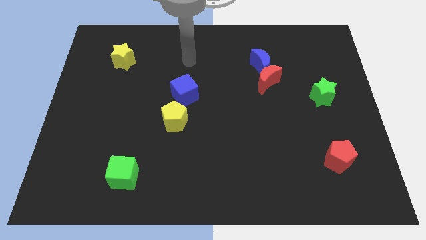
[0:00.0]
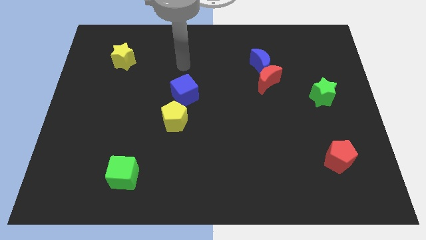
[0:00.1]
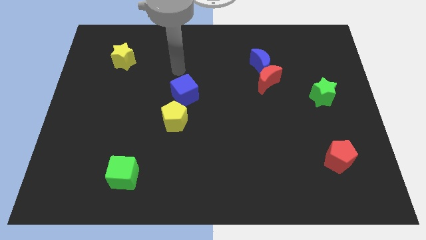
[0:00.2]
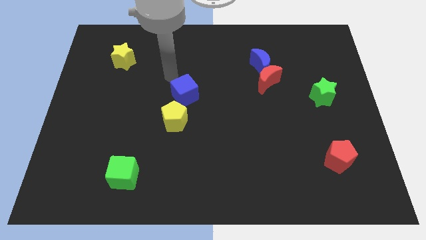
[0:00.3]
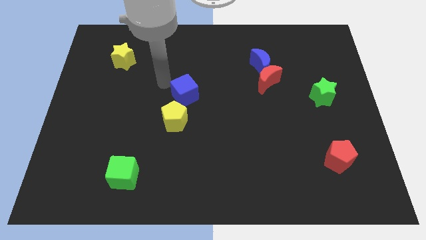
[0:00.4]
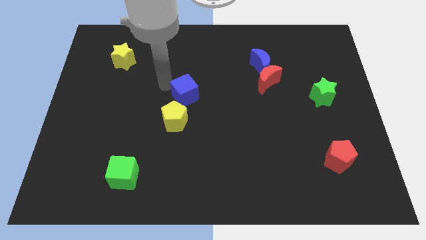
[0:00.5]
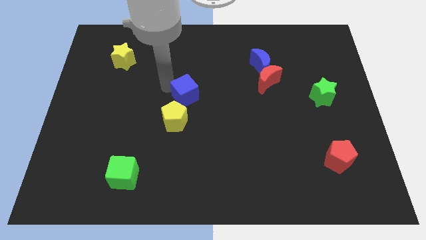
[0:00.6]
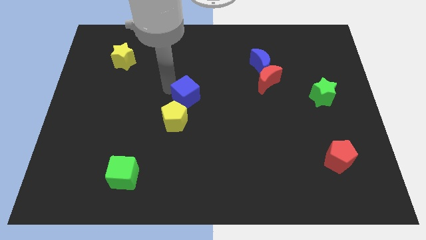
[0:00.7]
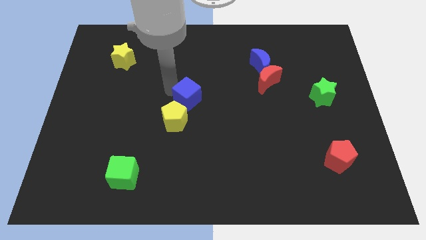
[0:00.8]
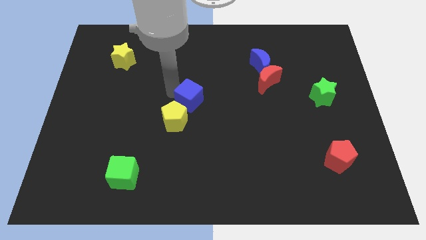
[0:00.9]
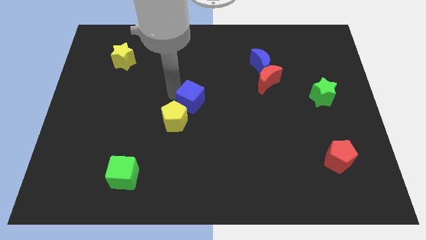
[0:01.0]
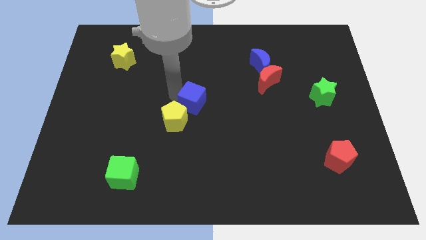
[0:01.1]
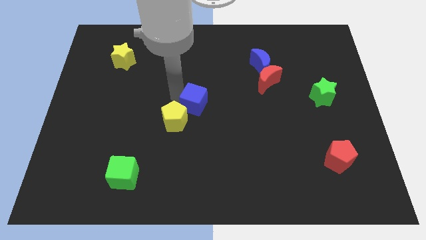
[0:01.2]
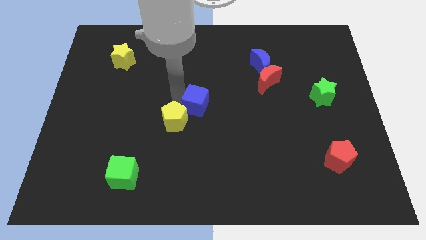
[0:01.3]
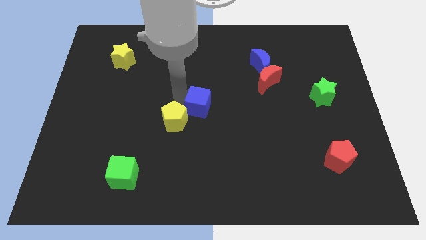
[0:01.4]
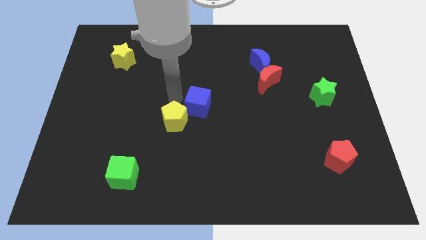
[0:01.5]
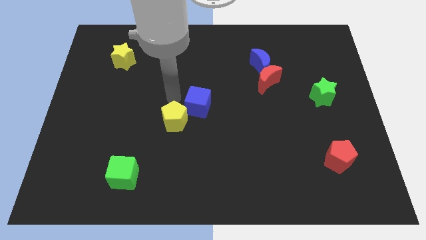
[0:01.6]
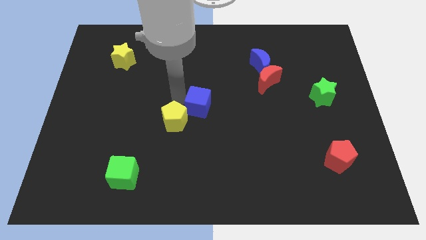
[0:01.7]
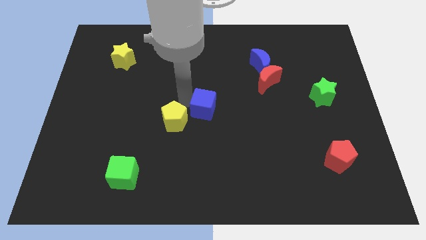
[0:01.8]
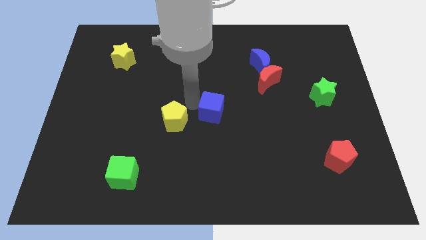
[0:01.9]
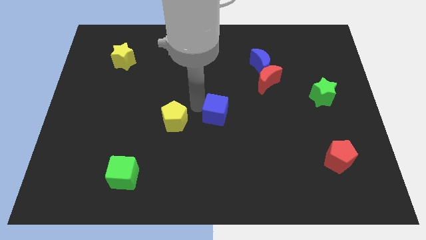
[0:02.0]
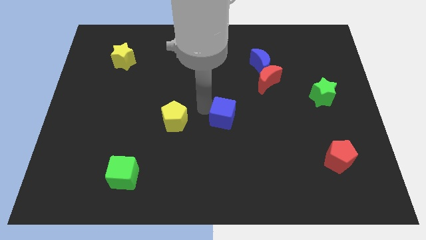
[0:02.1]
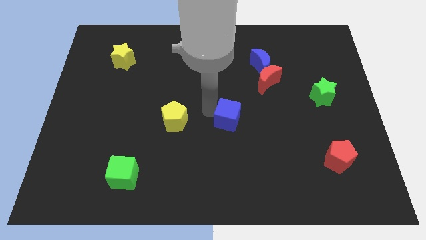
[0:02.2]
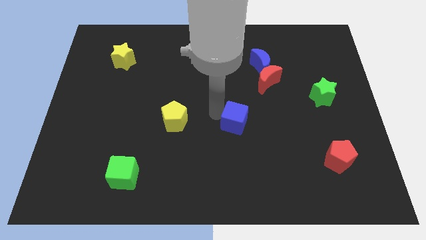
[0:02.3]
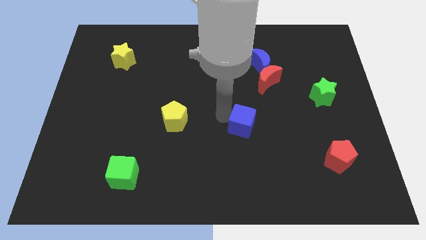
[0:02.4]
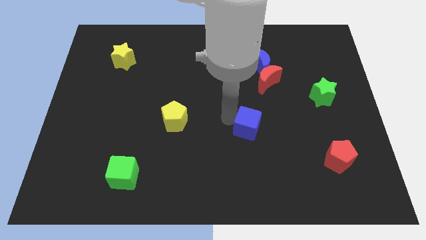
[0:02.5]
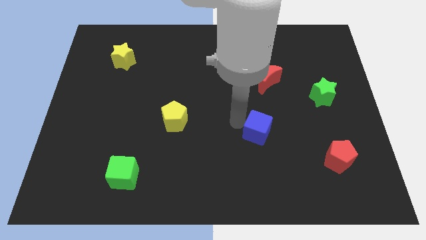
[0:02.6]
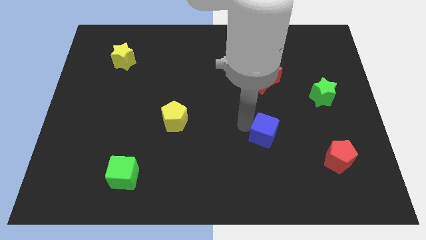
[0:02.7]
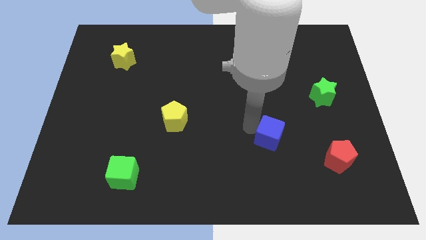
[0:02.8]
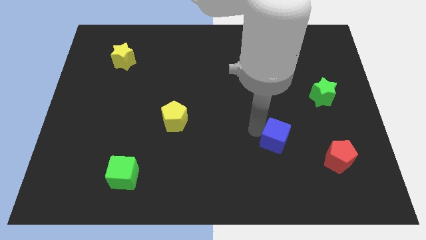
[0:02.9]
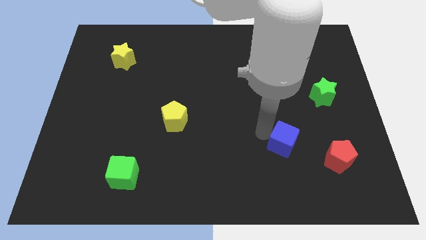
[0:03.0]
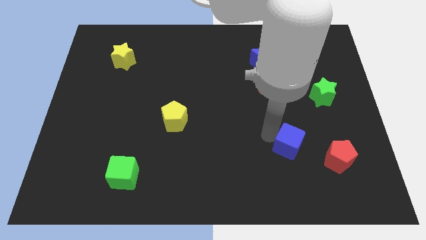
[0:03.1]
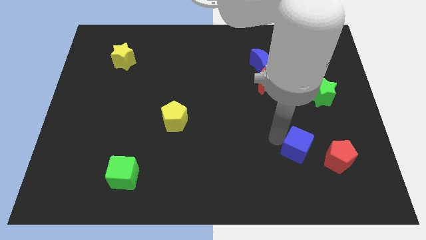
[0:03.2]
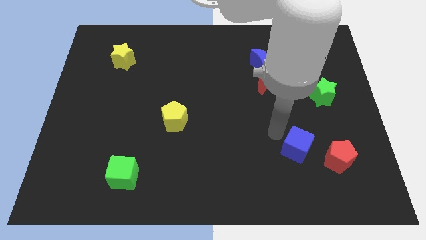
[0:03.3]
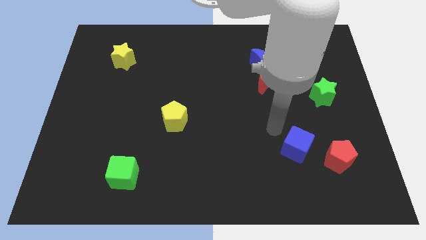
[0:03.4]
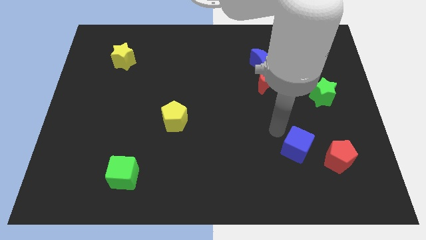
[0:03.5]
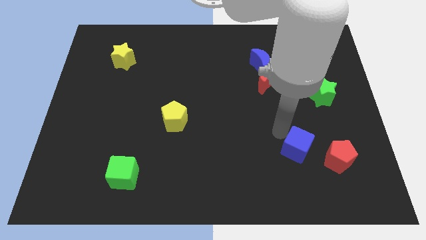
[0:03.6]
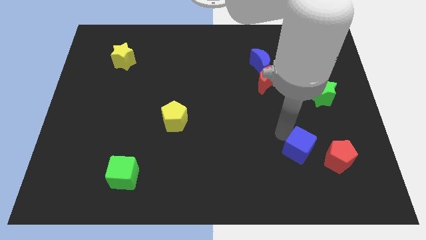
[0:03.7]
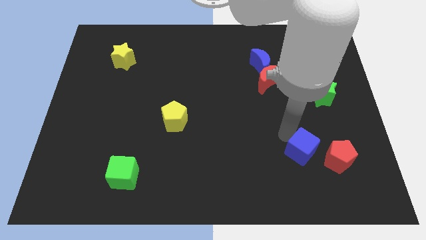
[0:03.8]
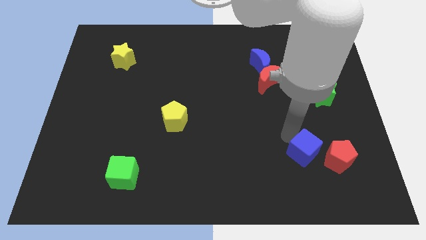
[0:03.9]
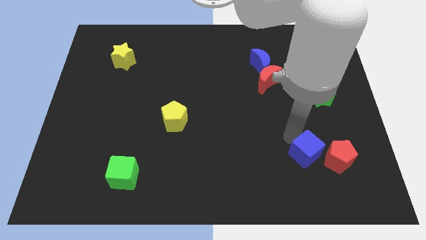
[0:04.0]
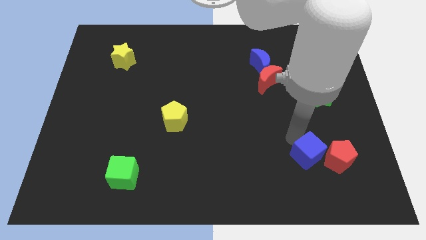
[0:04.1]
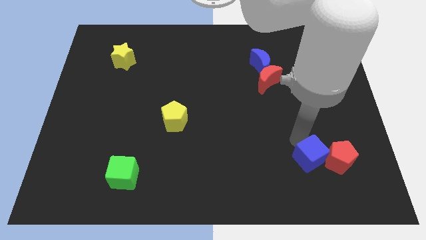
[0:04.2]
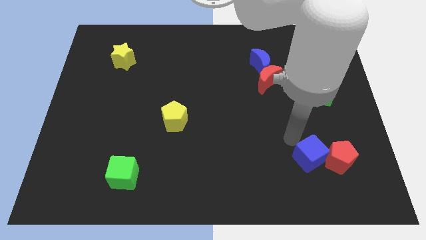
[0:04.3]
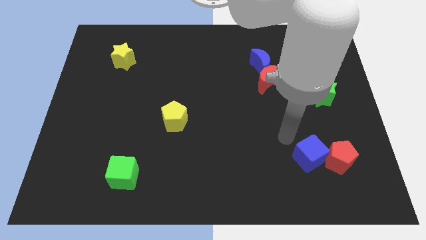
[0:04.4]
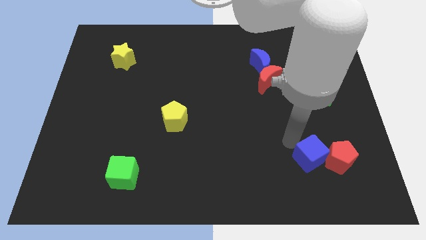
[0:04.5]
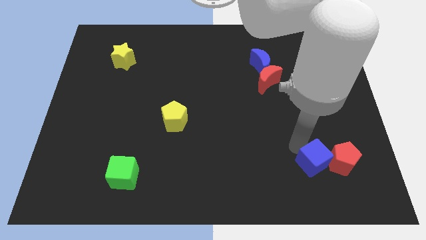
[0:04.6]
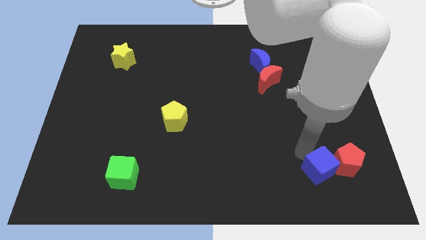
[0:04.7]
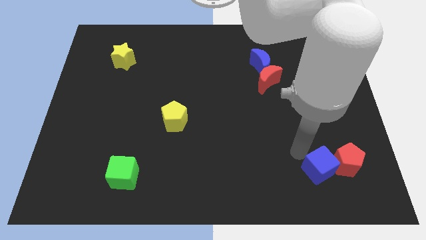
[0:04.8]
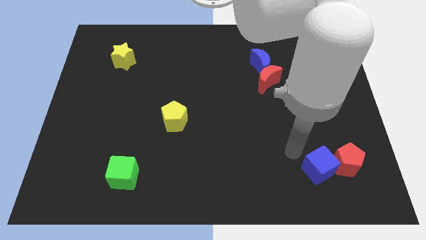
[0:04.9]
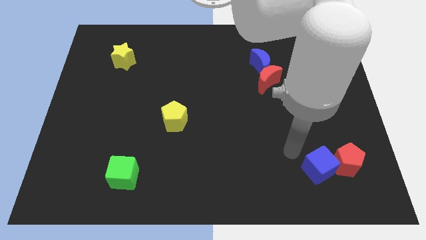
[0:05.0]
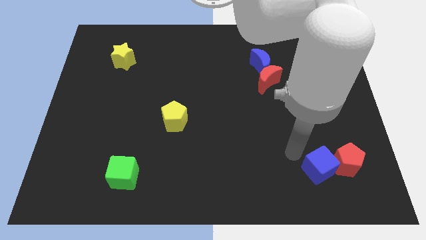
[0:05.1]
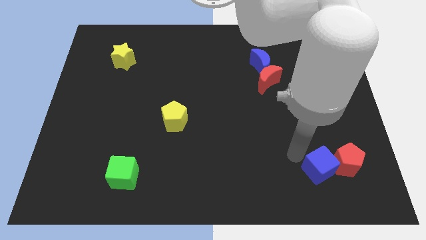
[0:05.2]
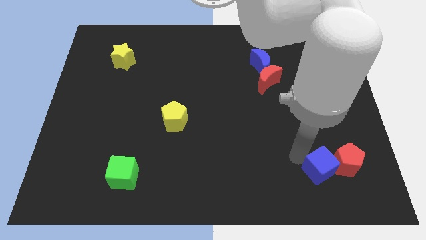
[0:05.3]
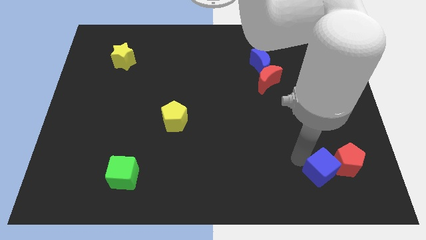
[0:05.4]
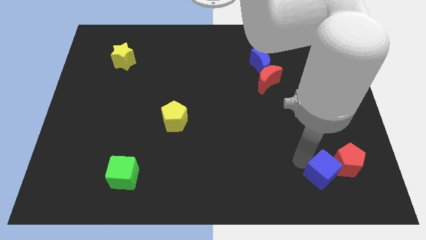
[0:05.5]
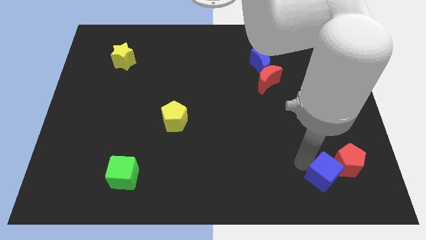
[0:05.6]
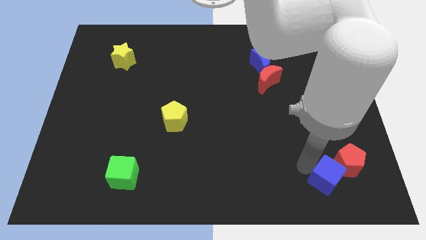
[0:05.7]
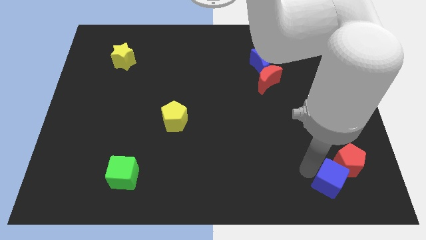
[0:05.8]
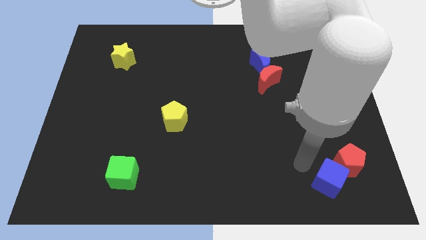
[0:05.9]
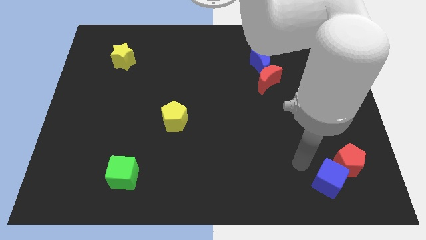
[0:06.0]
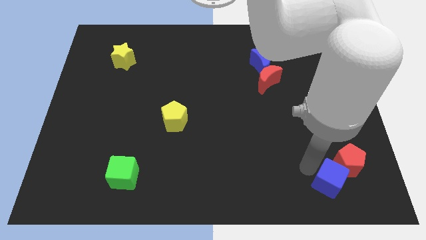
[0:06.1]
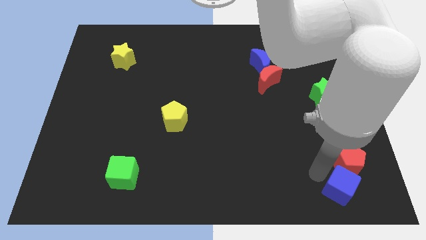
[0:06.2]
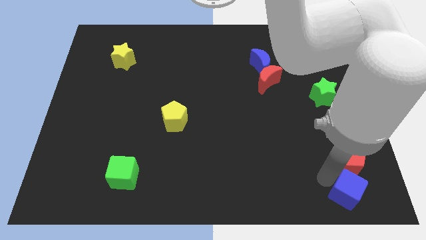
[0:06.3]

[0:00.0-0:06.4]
move the blue cube to the bottom right of the board

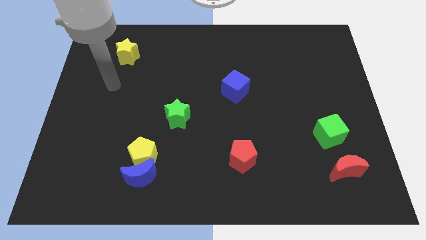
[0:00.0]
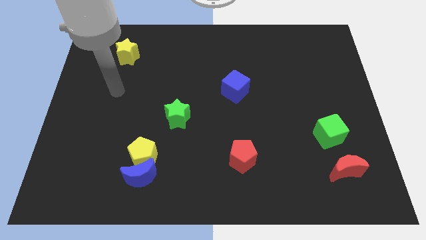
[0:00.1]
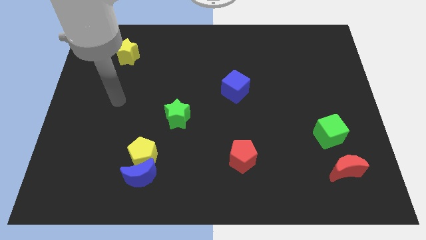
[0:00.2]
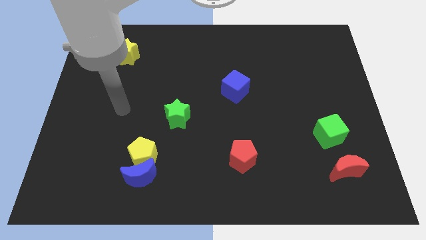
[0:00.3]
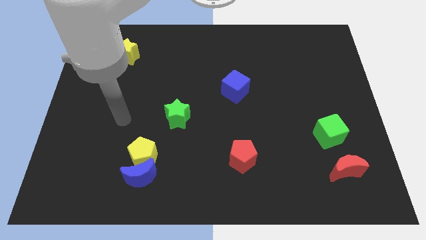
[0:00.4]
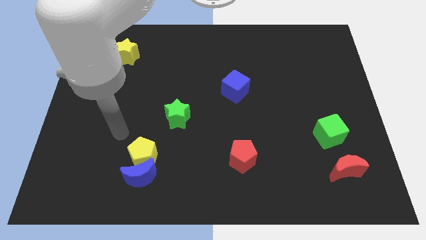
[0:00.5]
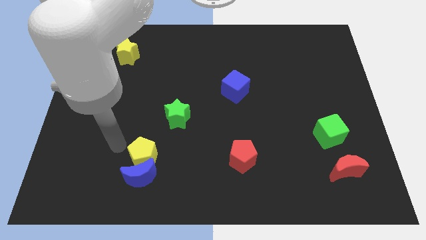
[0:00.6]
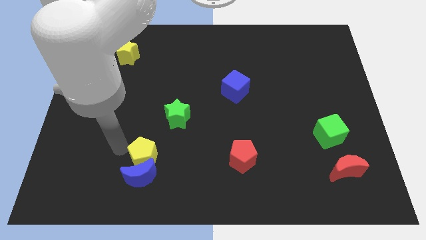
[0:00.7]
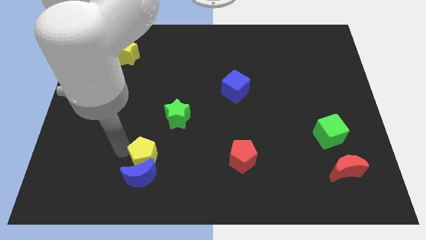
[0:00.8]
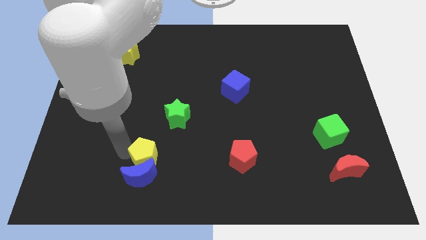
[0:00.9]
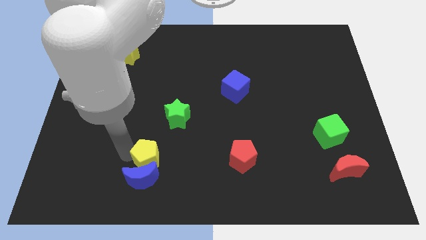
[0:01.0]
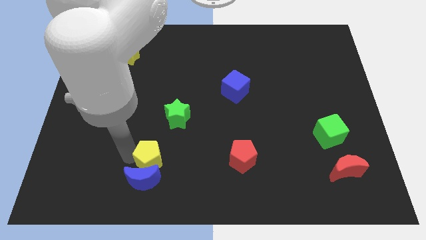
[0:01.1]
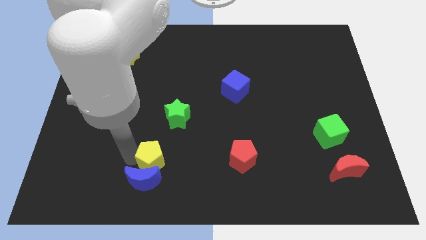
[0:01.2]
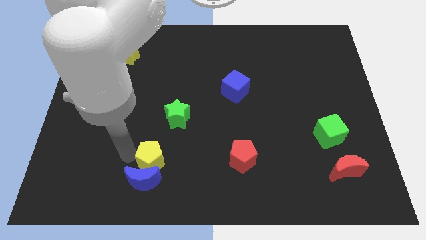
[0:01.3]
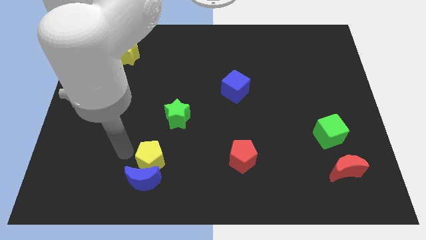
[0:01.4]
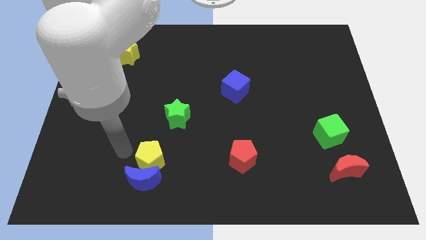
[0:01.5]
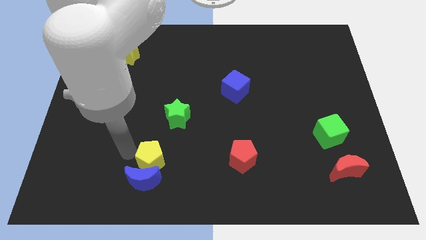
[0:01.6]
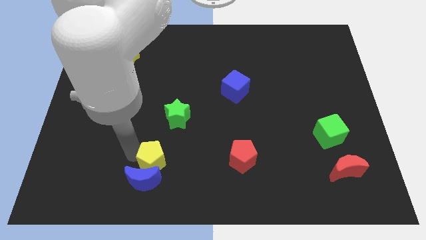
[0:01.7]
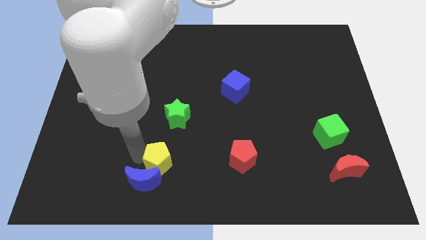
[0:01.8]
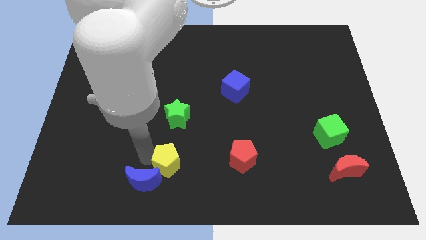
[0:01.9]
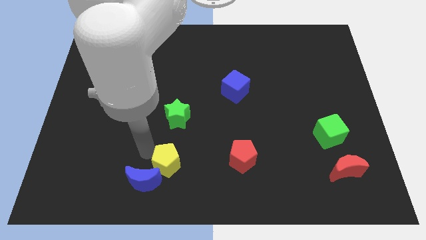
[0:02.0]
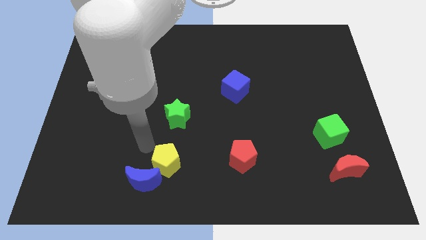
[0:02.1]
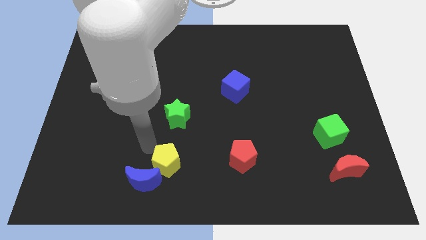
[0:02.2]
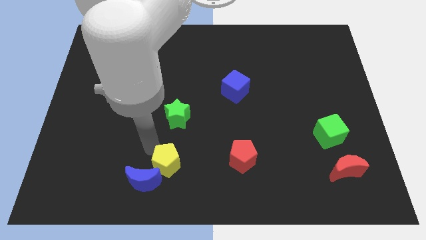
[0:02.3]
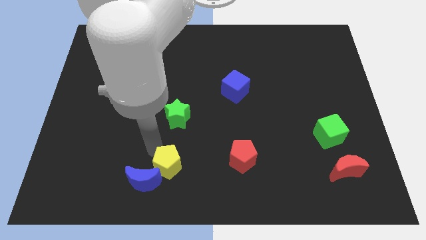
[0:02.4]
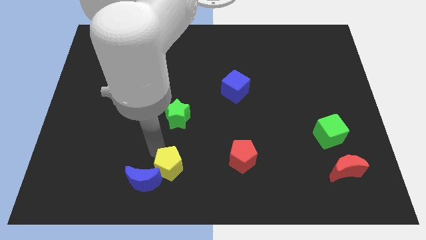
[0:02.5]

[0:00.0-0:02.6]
put the yellow pentagon to the bottom side
